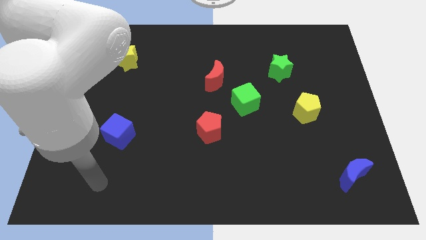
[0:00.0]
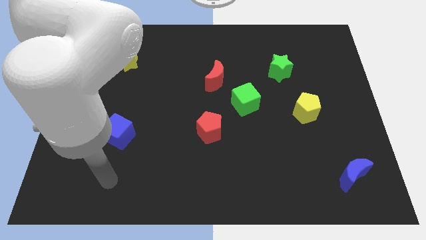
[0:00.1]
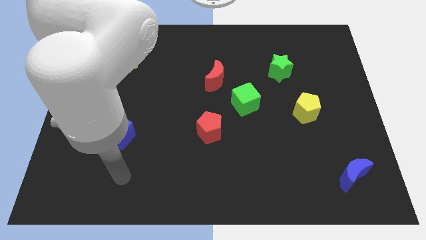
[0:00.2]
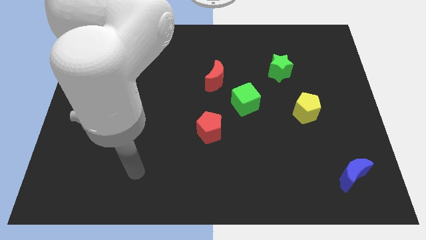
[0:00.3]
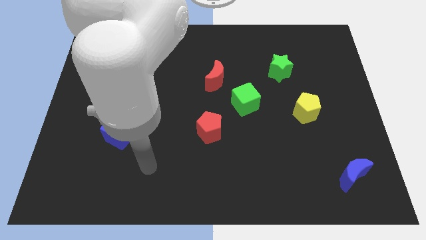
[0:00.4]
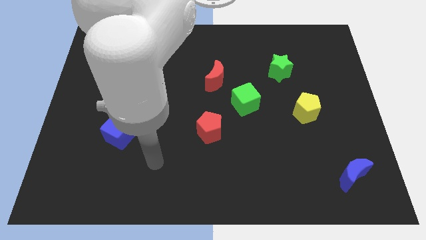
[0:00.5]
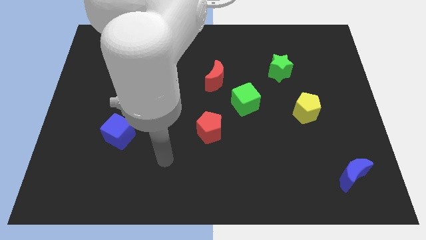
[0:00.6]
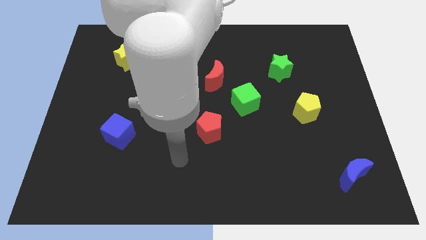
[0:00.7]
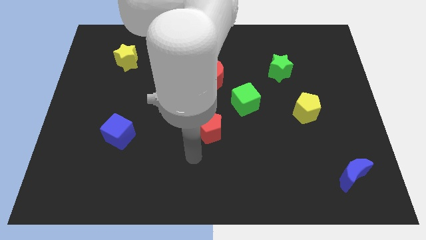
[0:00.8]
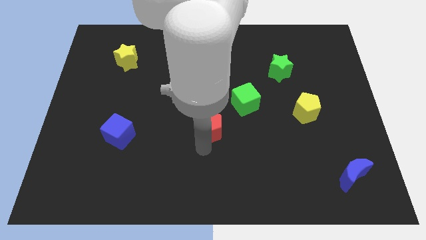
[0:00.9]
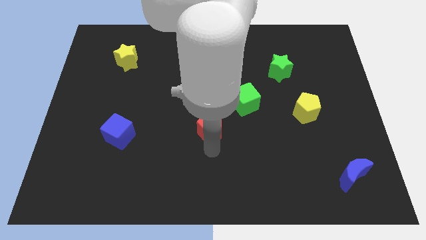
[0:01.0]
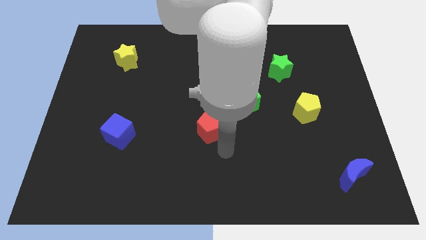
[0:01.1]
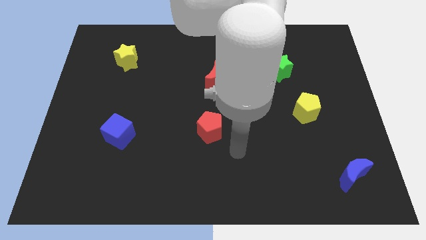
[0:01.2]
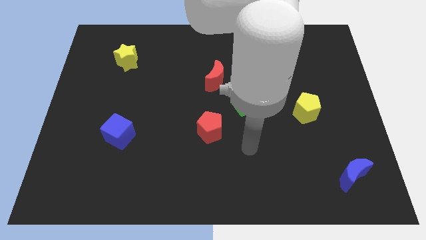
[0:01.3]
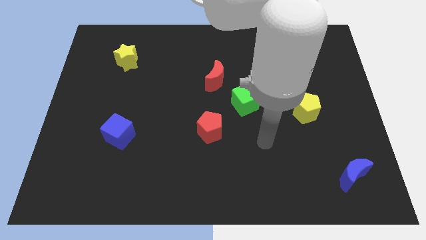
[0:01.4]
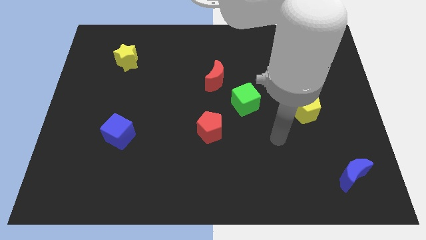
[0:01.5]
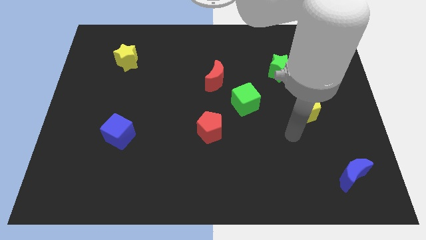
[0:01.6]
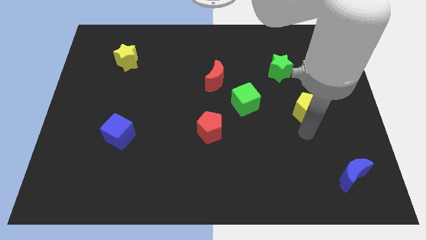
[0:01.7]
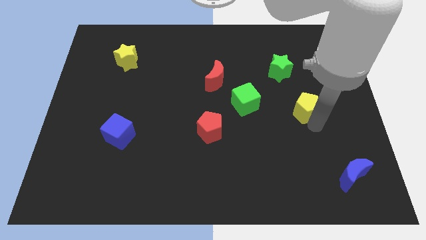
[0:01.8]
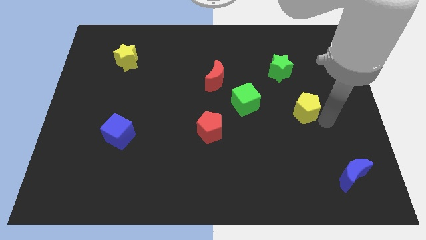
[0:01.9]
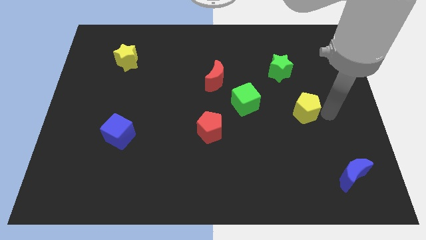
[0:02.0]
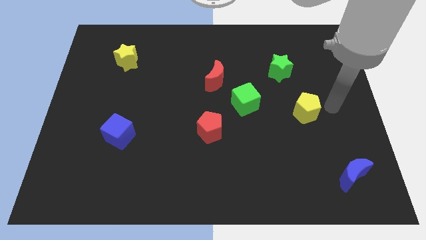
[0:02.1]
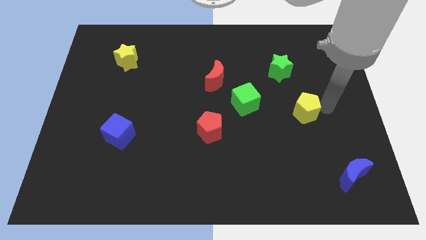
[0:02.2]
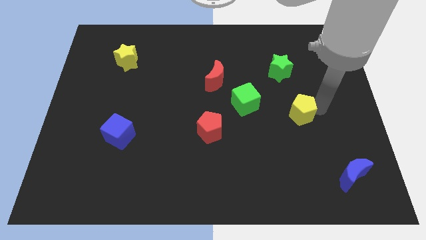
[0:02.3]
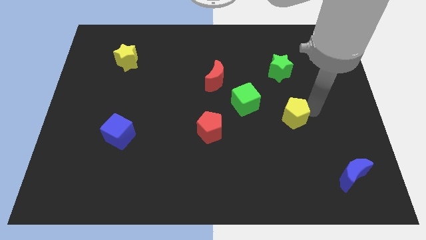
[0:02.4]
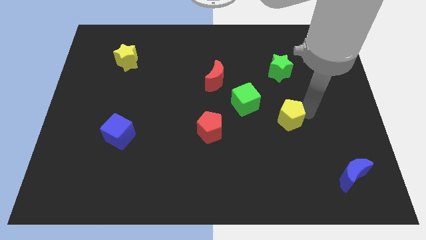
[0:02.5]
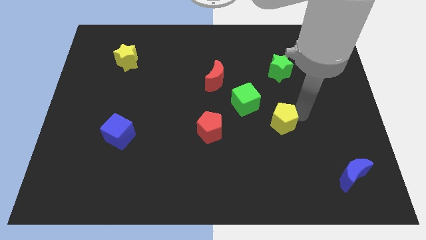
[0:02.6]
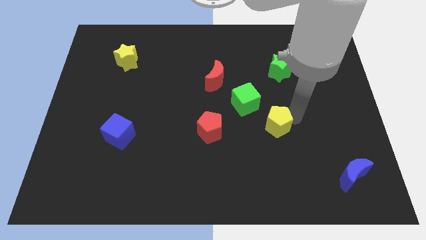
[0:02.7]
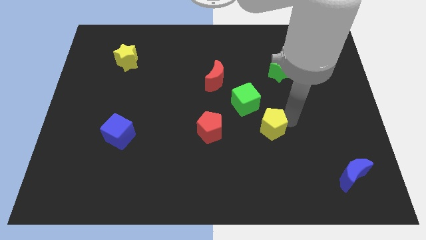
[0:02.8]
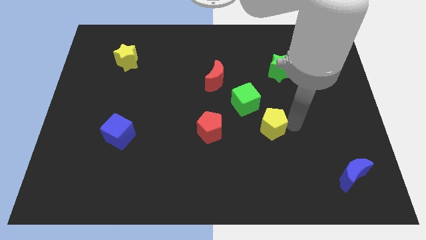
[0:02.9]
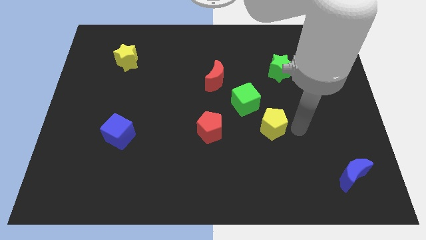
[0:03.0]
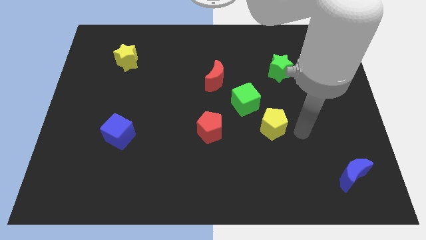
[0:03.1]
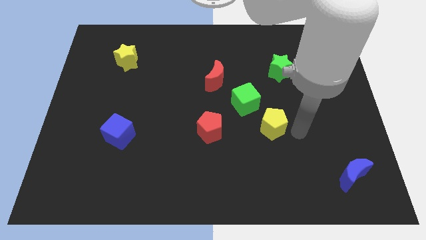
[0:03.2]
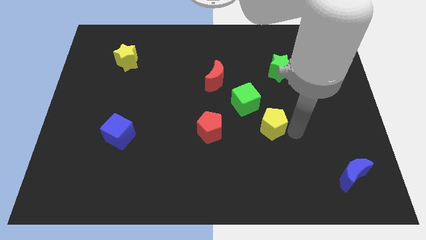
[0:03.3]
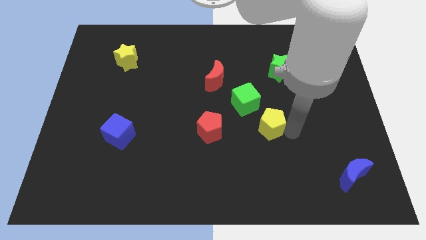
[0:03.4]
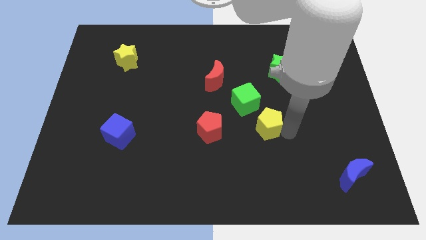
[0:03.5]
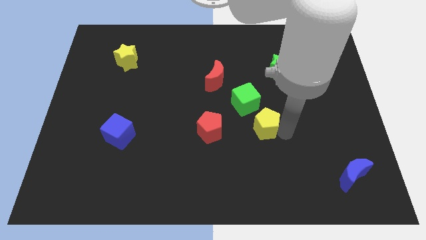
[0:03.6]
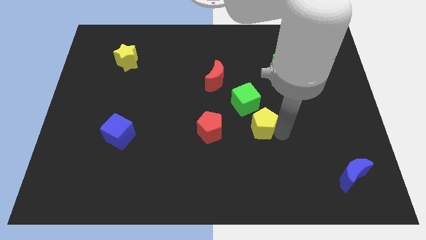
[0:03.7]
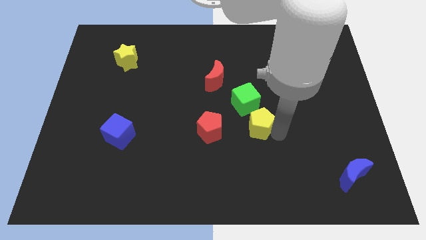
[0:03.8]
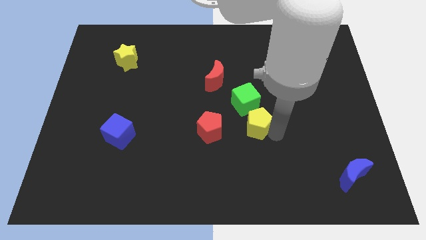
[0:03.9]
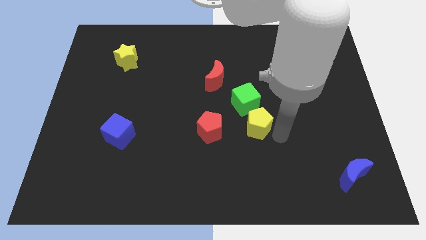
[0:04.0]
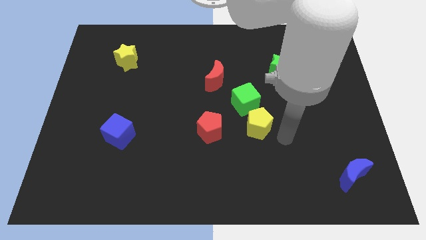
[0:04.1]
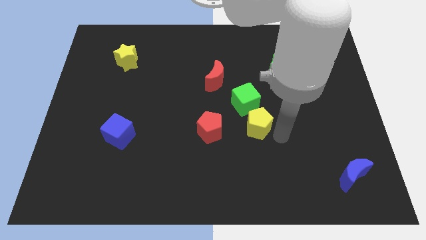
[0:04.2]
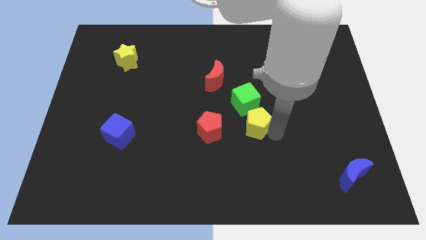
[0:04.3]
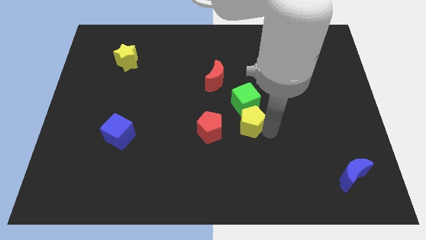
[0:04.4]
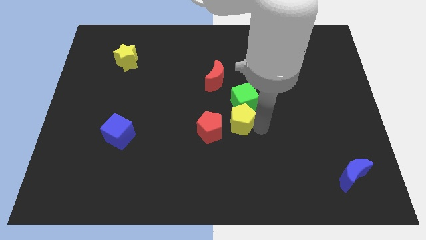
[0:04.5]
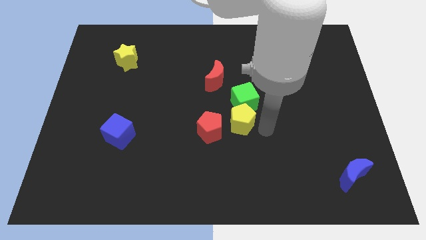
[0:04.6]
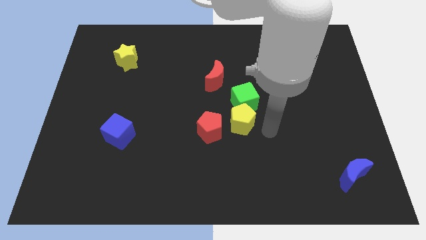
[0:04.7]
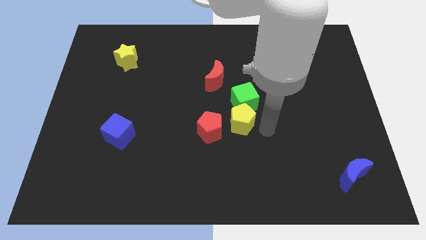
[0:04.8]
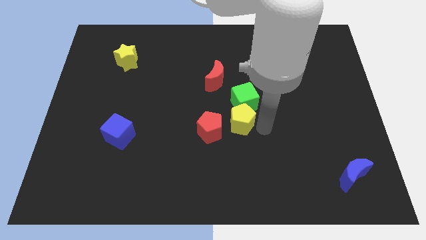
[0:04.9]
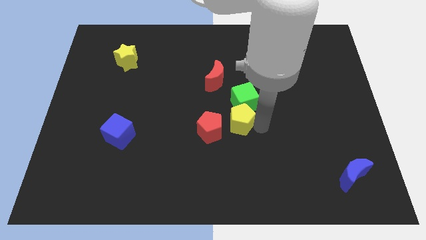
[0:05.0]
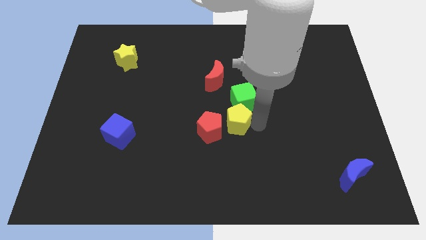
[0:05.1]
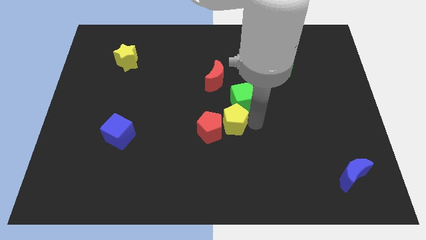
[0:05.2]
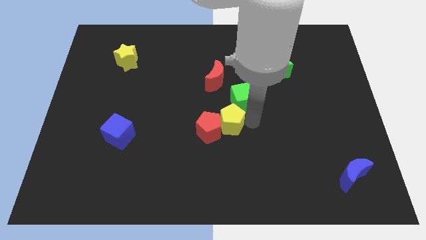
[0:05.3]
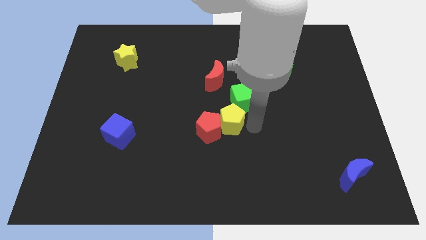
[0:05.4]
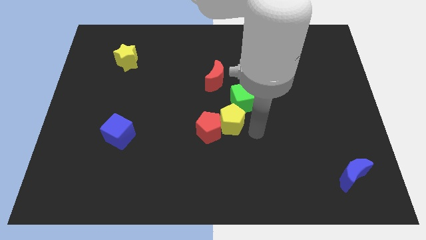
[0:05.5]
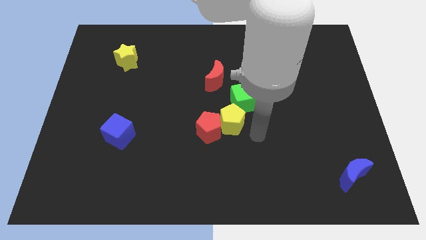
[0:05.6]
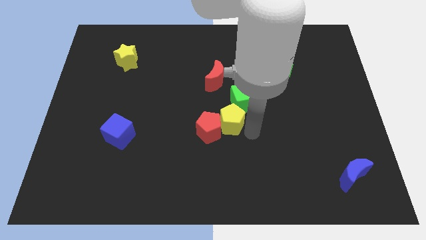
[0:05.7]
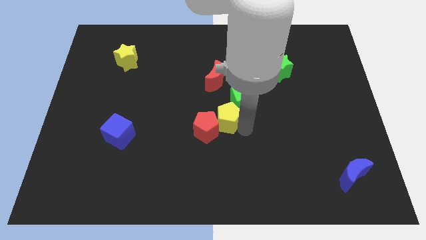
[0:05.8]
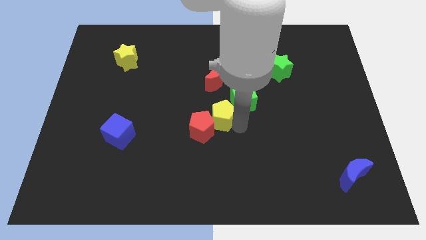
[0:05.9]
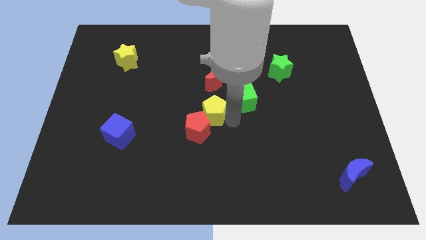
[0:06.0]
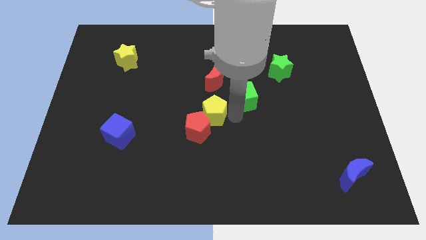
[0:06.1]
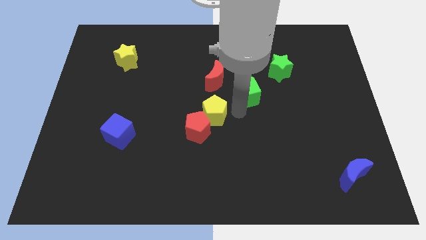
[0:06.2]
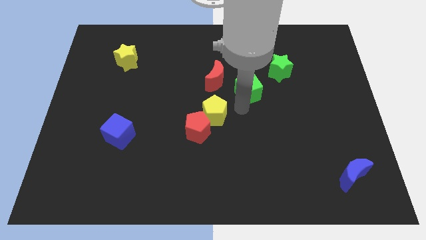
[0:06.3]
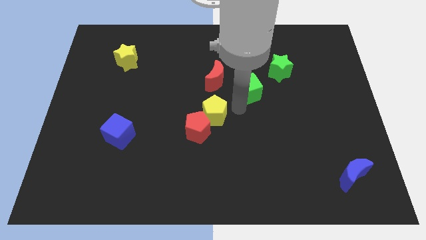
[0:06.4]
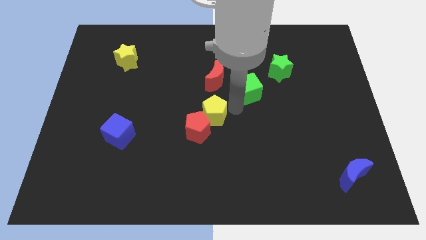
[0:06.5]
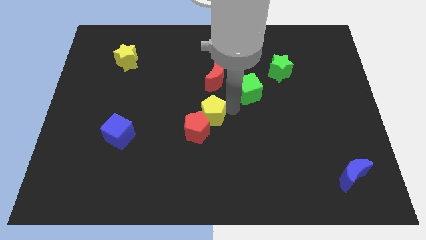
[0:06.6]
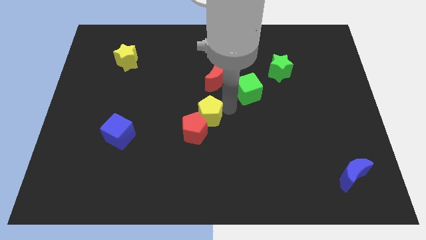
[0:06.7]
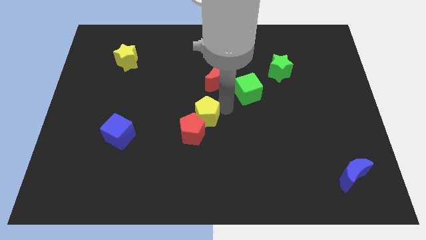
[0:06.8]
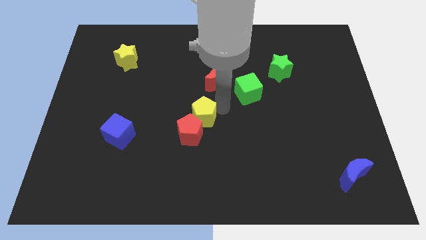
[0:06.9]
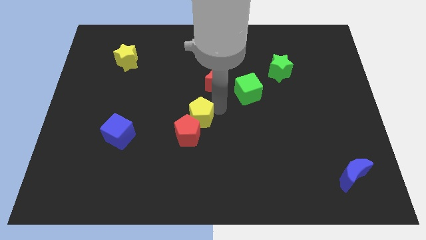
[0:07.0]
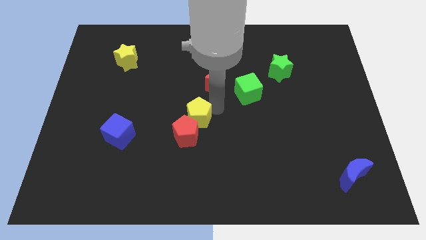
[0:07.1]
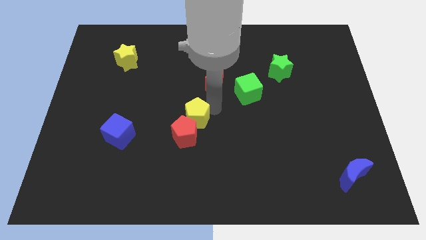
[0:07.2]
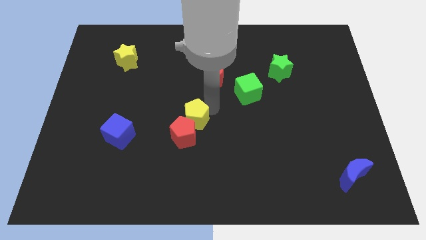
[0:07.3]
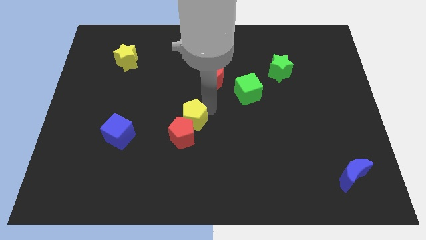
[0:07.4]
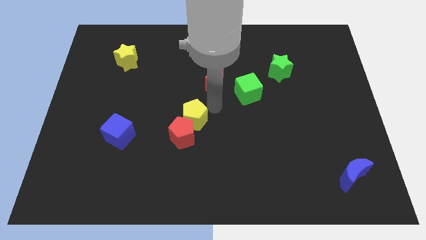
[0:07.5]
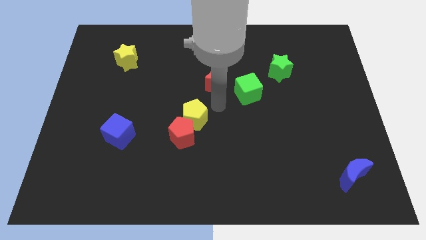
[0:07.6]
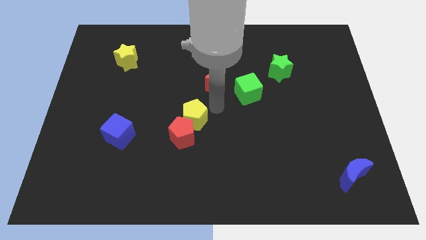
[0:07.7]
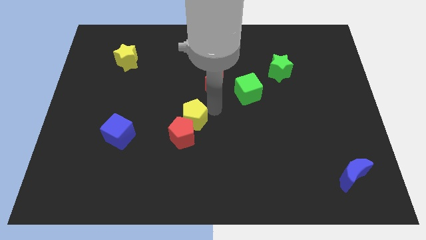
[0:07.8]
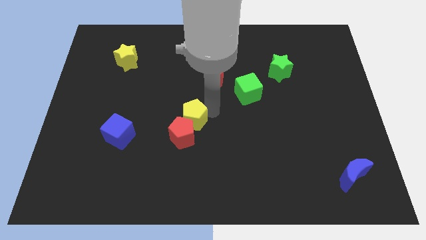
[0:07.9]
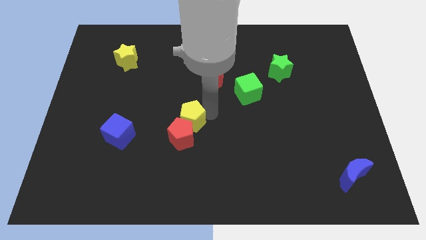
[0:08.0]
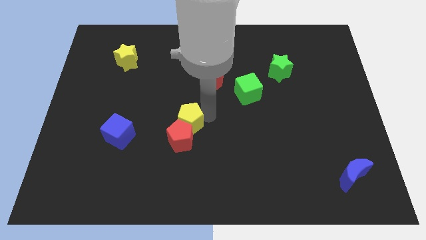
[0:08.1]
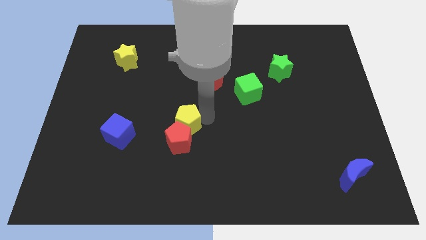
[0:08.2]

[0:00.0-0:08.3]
slide the yellow pentagon just right of the blue cube
